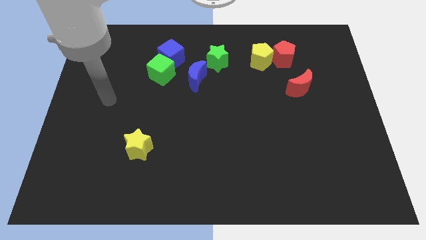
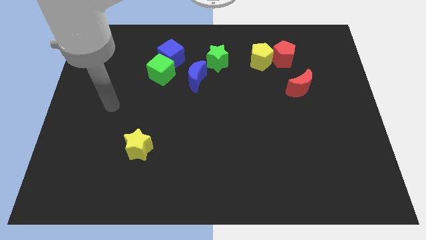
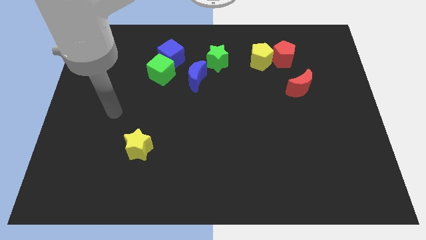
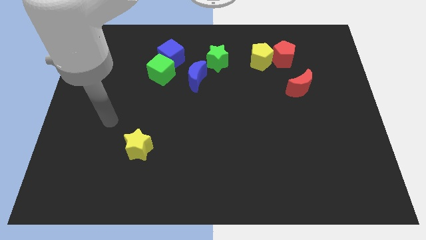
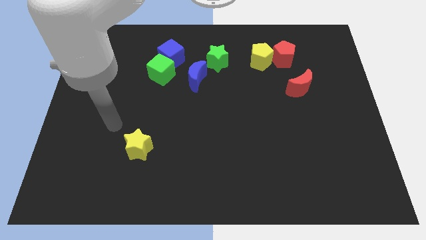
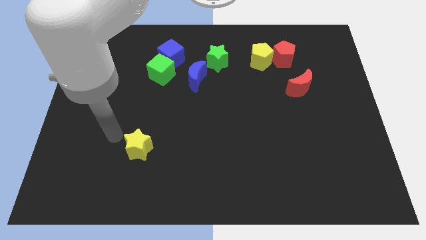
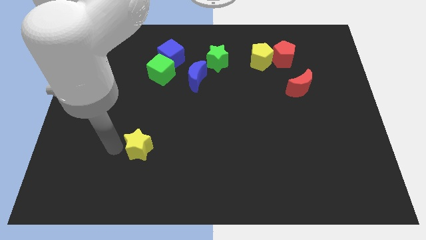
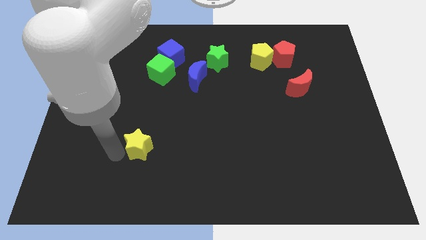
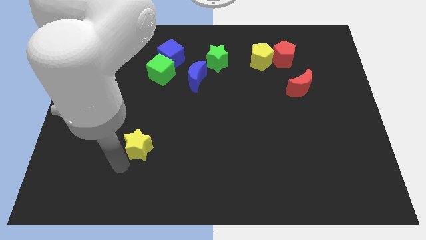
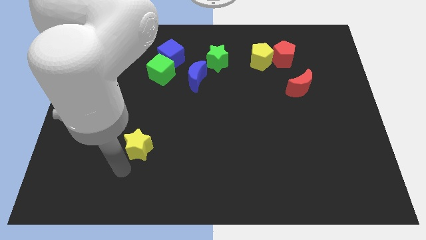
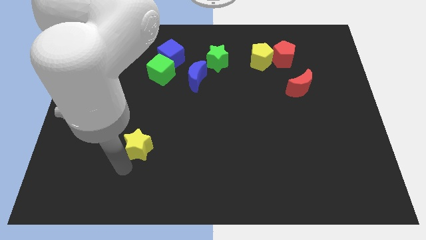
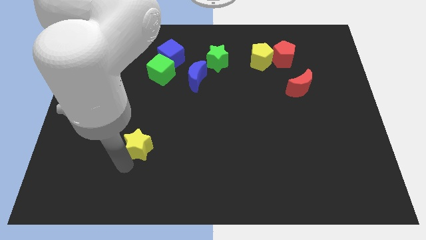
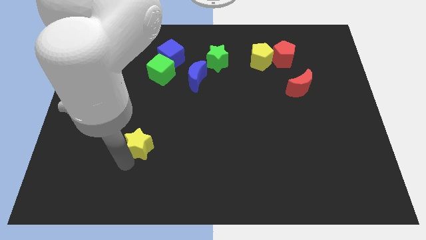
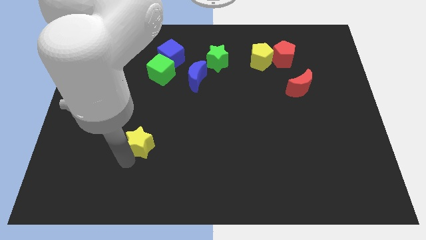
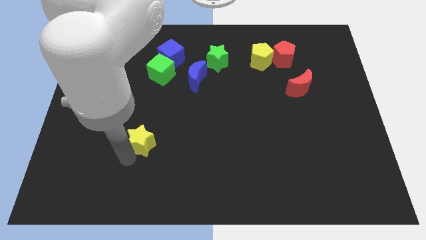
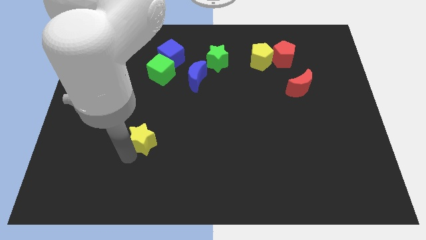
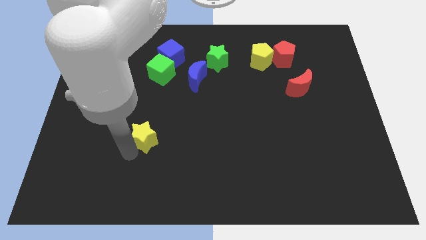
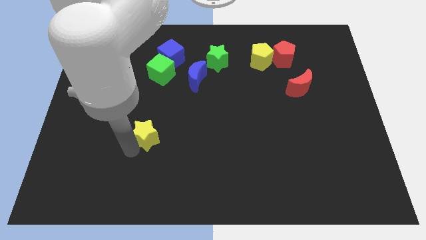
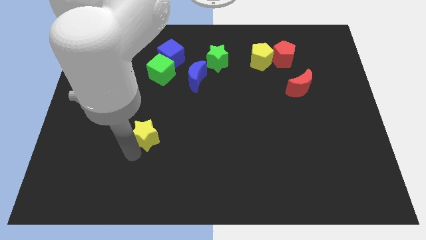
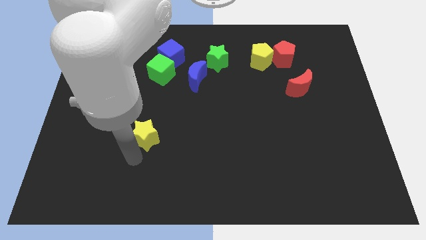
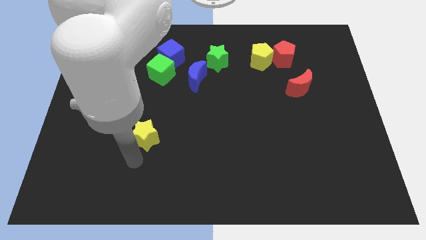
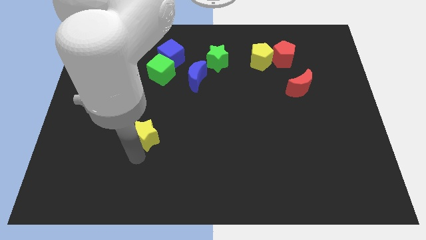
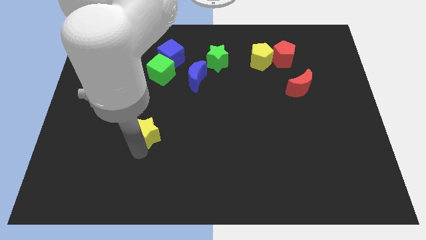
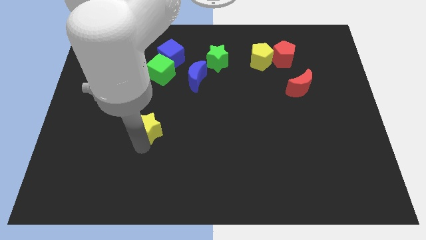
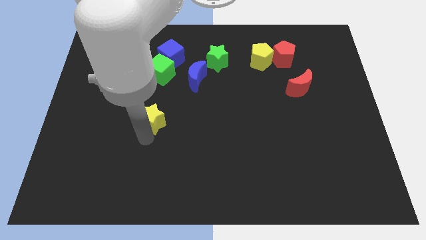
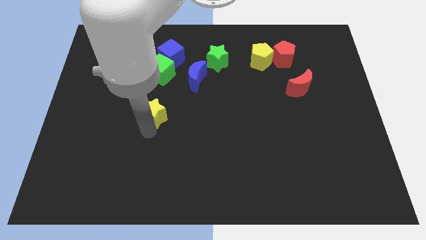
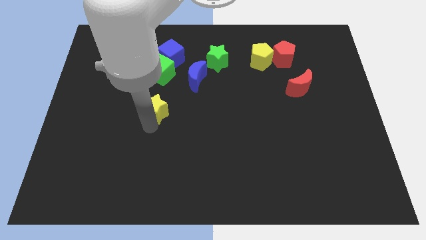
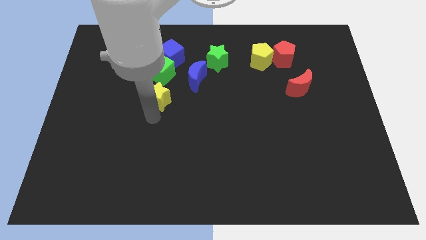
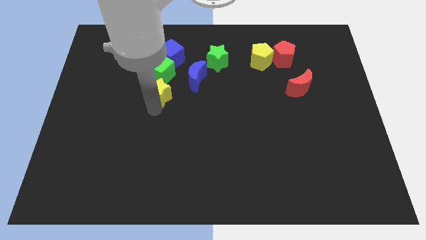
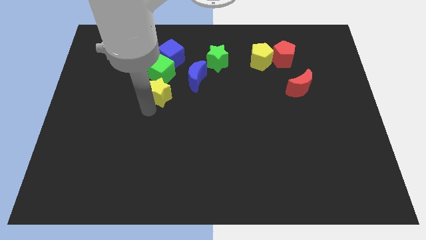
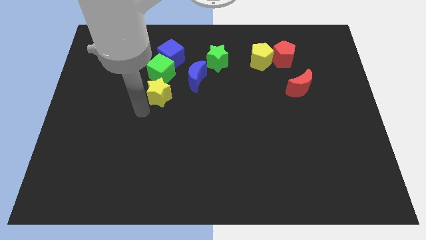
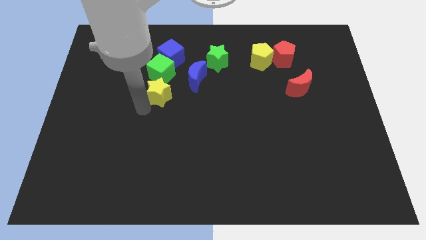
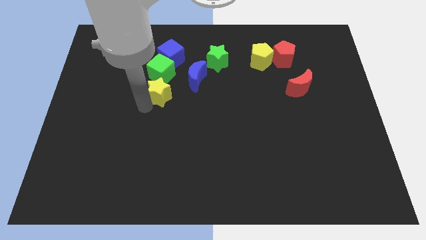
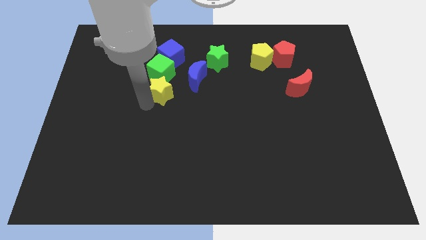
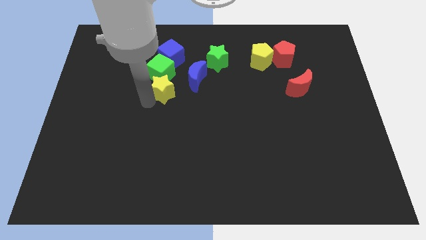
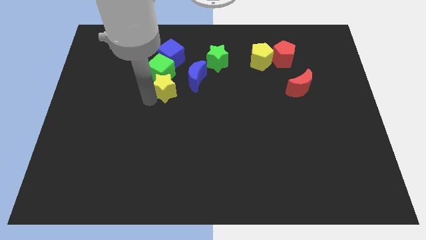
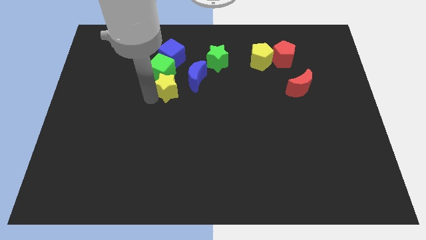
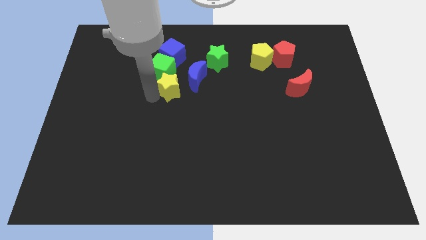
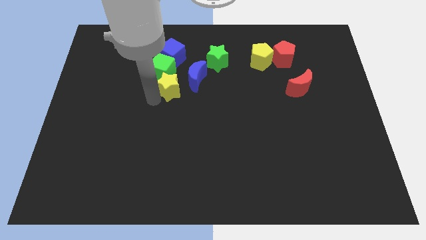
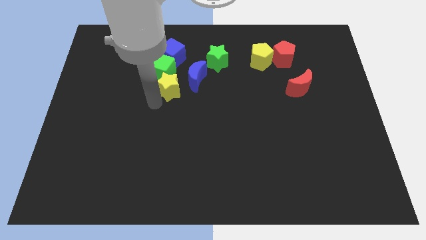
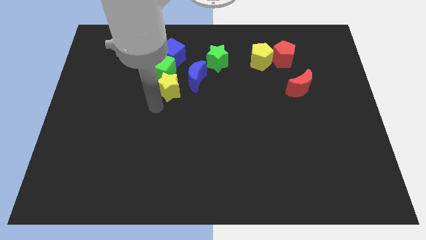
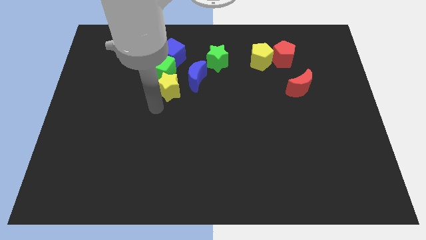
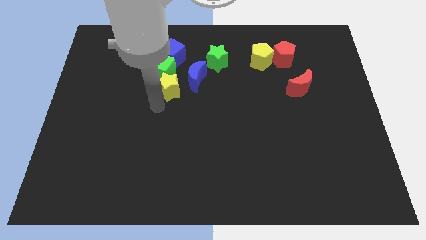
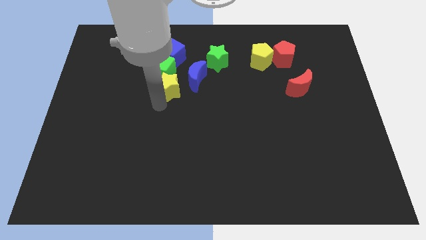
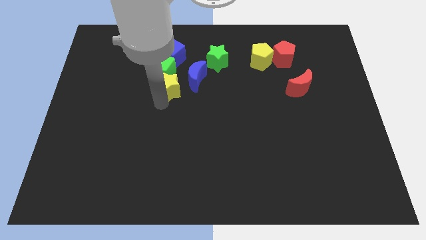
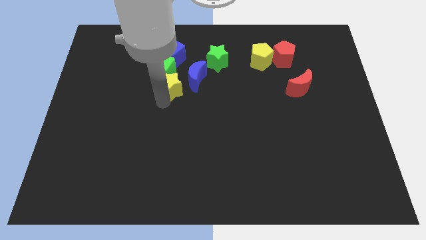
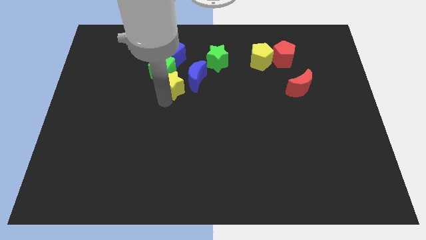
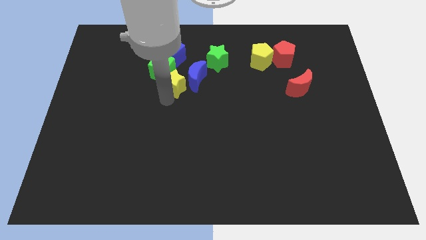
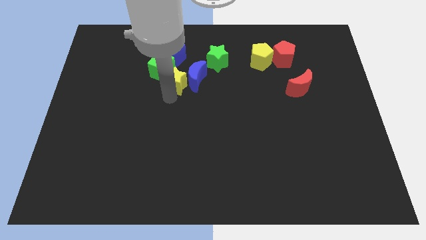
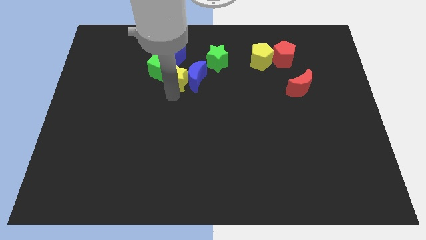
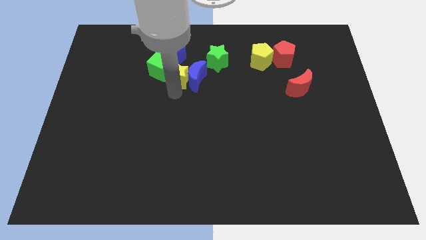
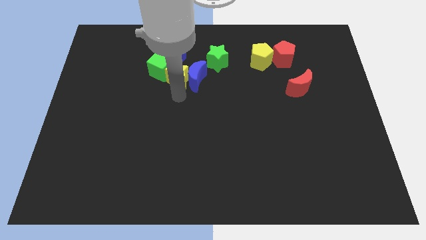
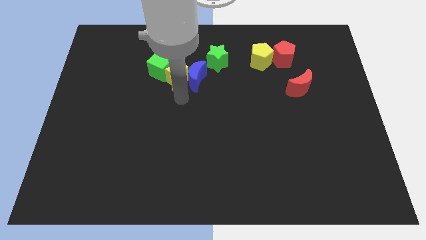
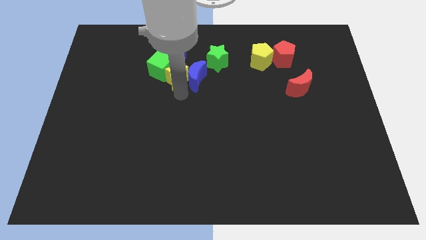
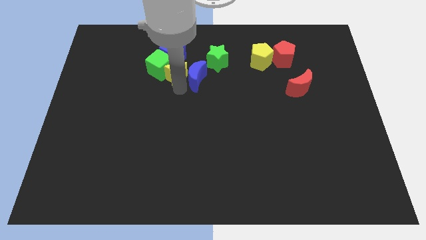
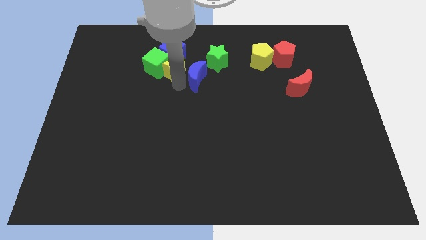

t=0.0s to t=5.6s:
put the yellow star next to the blue cube

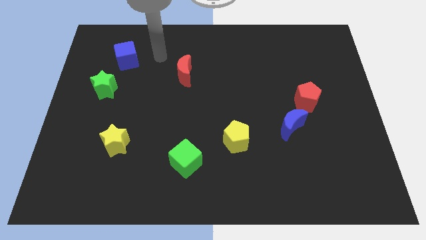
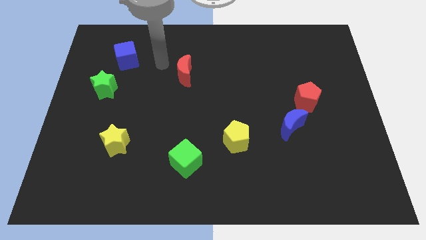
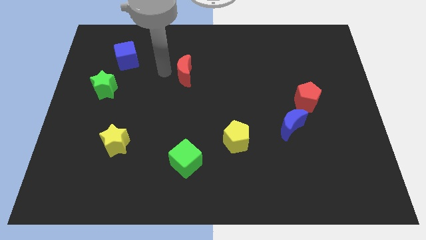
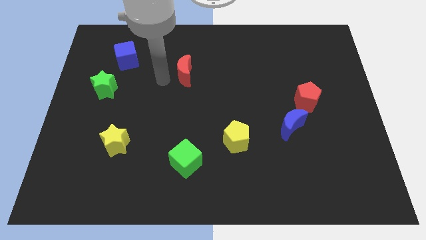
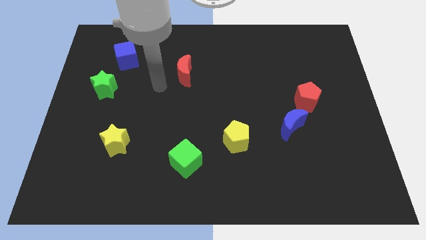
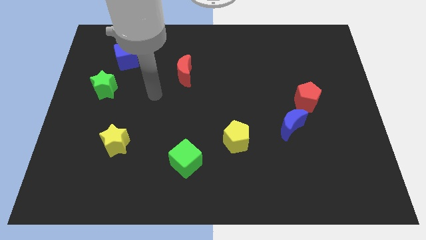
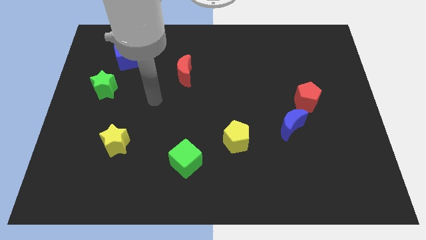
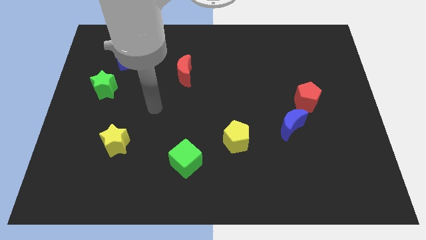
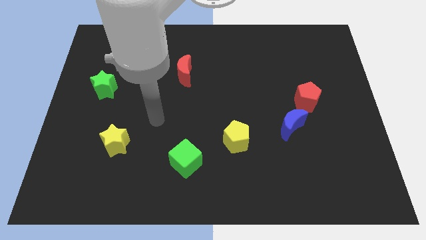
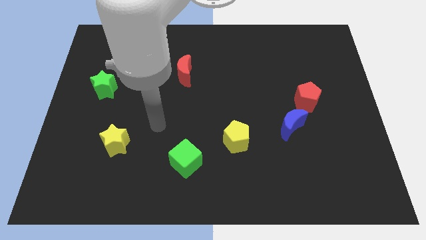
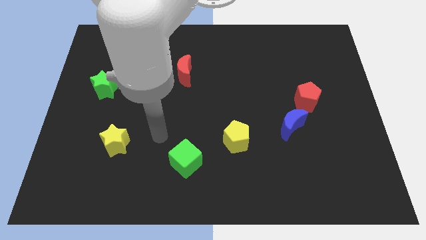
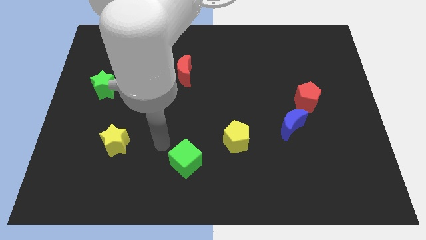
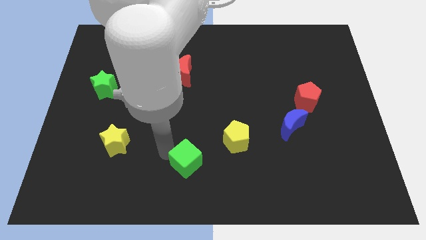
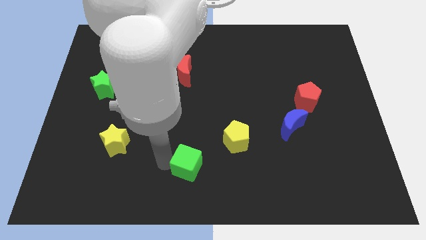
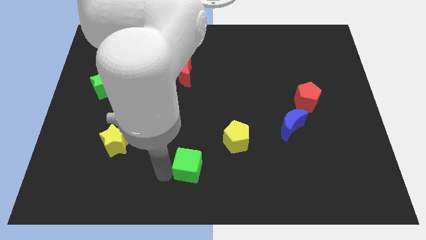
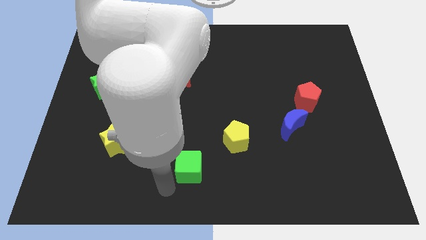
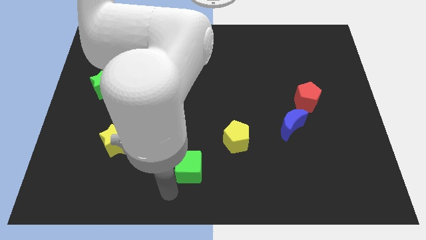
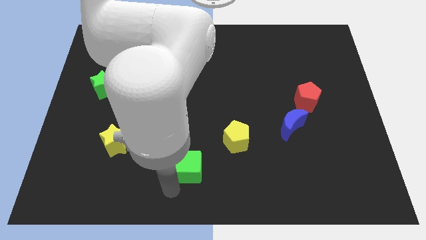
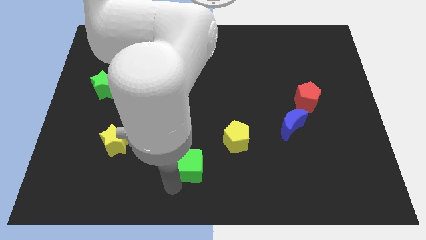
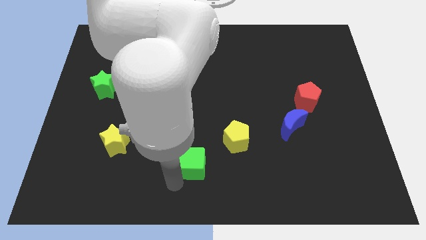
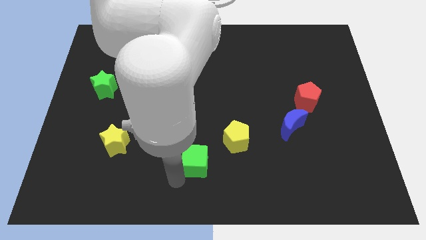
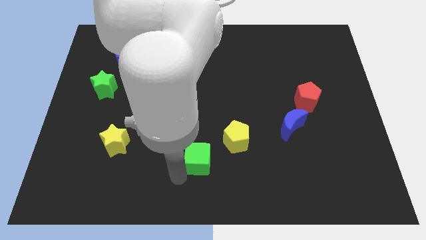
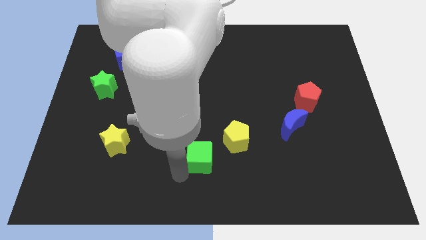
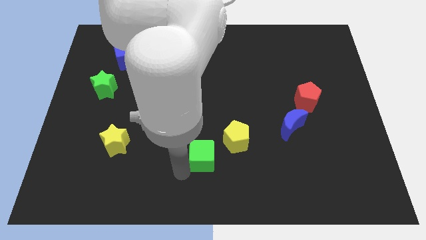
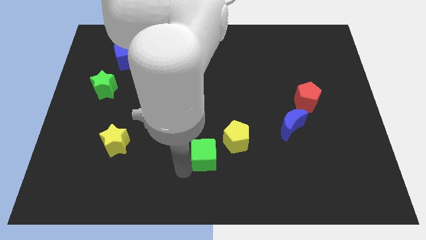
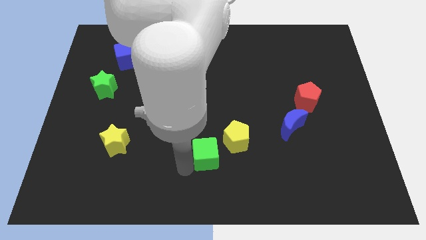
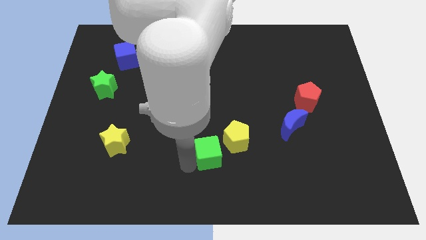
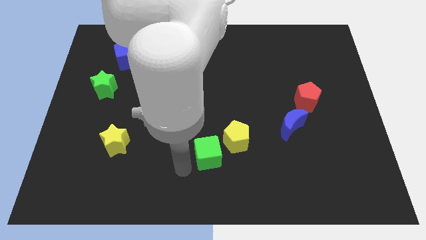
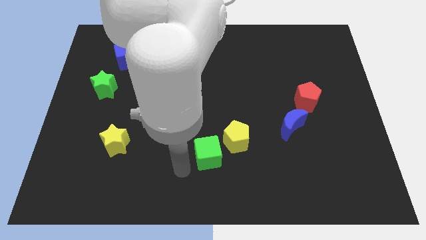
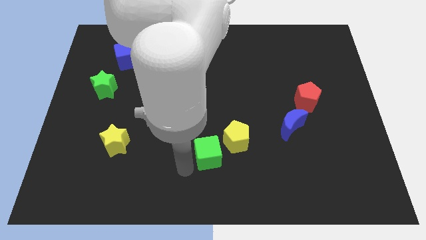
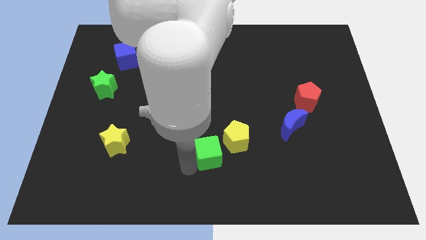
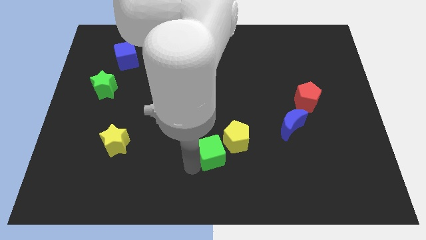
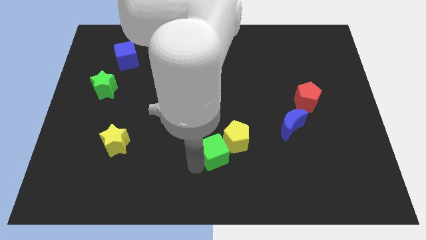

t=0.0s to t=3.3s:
push the green cube next to the yellow pentagon
